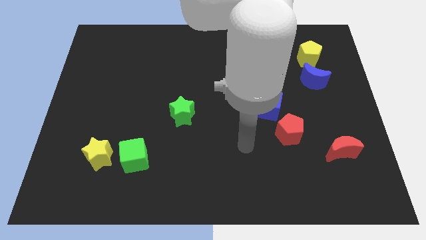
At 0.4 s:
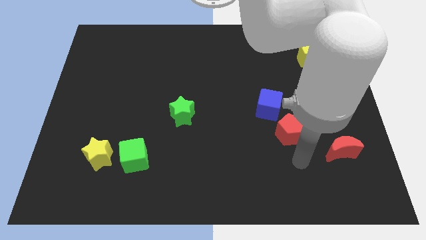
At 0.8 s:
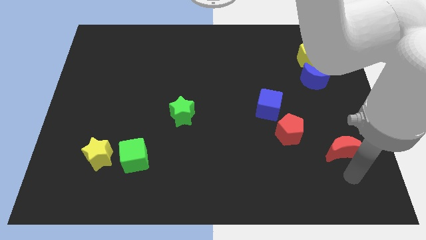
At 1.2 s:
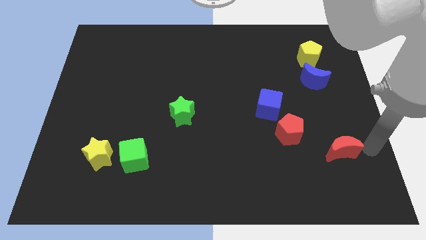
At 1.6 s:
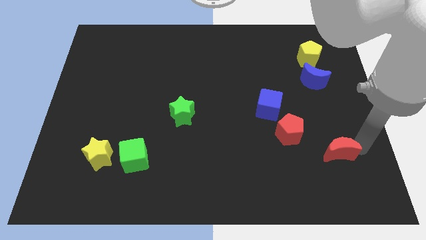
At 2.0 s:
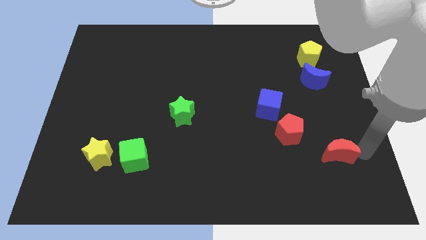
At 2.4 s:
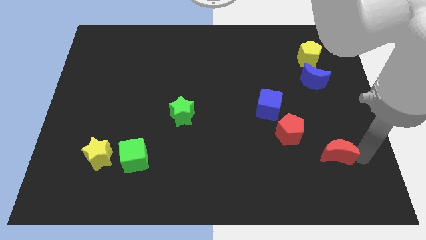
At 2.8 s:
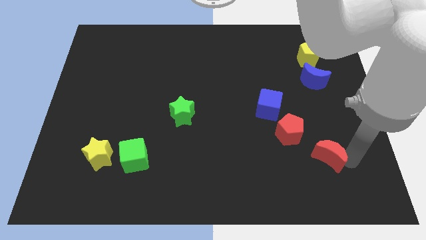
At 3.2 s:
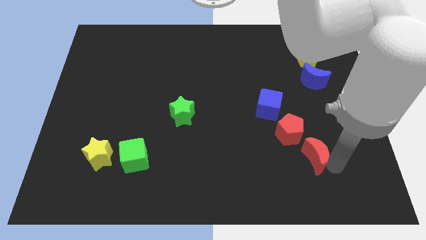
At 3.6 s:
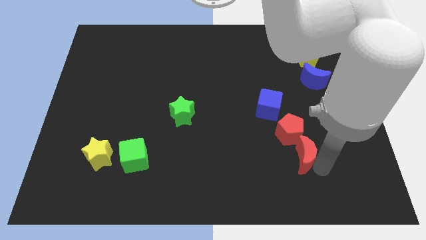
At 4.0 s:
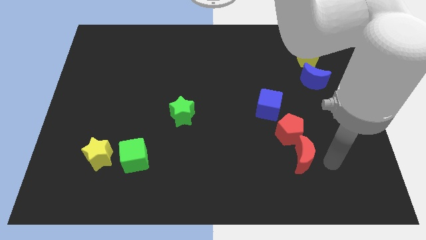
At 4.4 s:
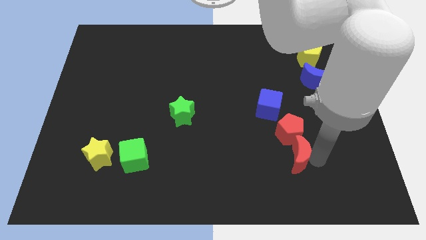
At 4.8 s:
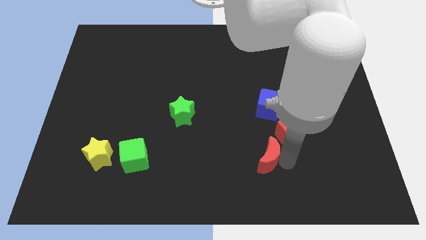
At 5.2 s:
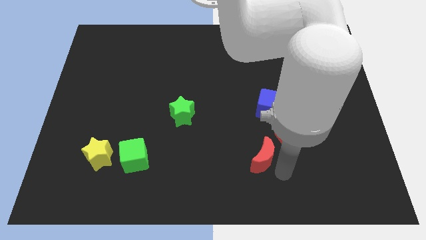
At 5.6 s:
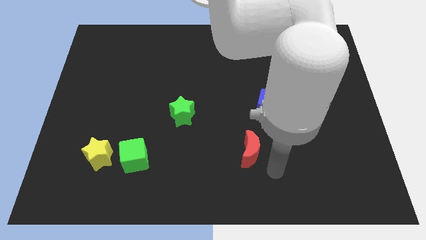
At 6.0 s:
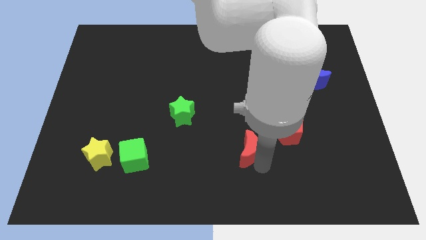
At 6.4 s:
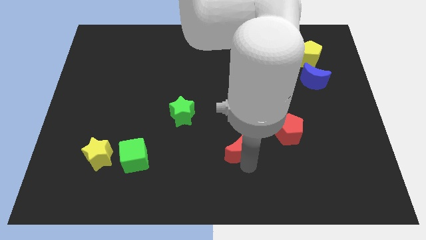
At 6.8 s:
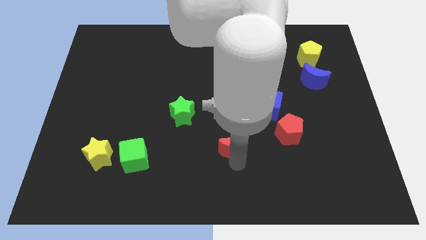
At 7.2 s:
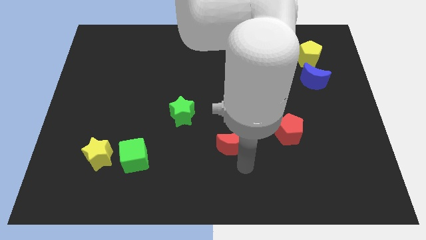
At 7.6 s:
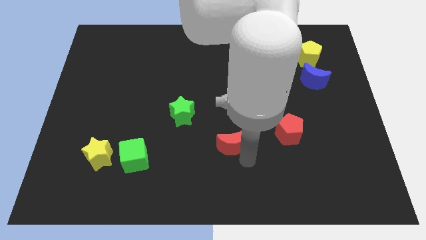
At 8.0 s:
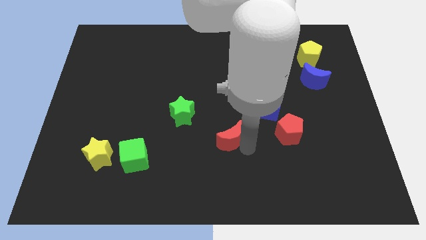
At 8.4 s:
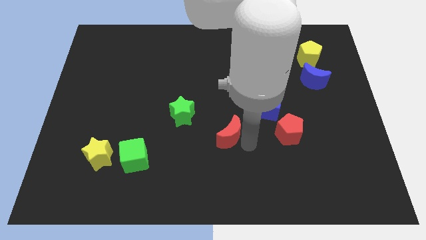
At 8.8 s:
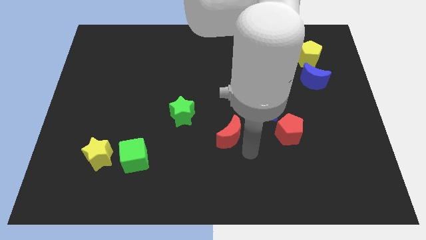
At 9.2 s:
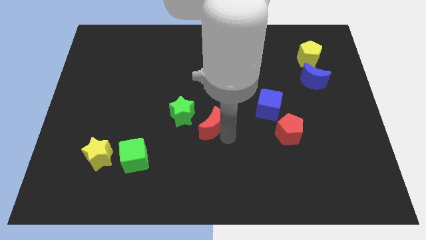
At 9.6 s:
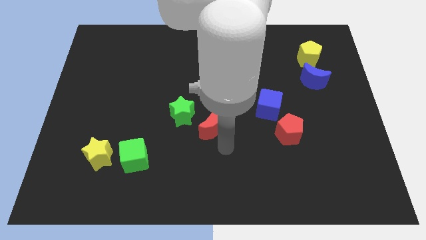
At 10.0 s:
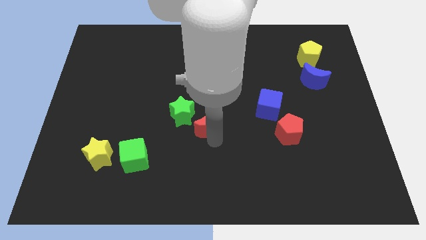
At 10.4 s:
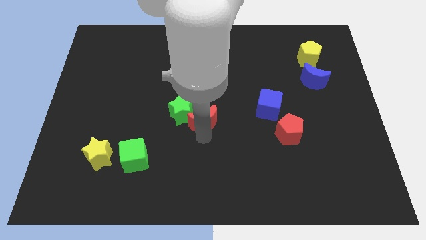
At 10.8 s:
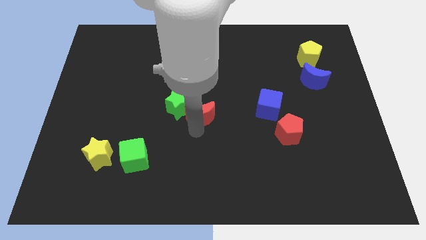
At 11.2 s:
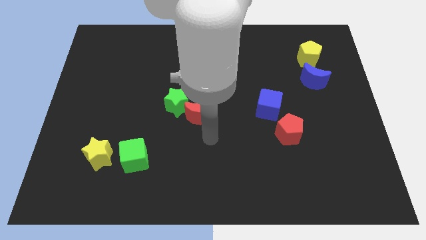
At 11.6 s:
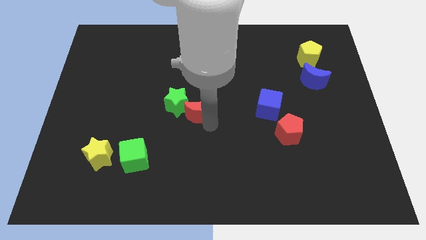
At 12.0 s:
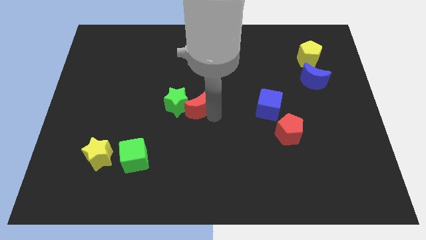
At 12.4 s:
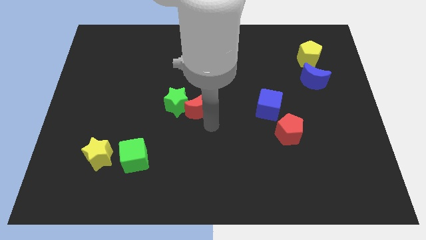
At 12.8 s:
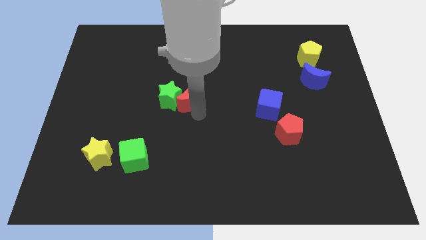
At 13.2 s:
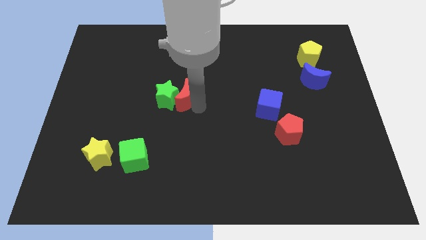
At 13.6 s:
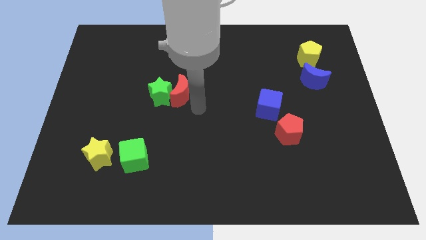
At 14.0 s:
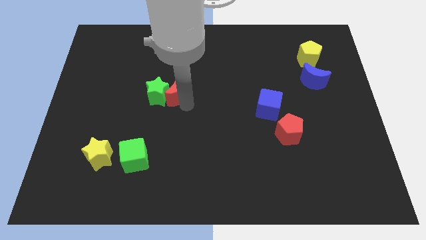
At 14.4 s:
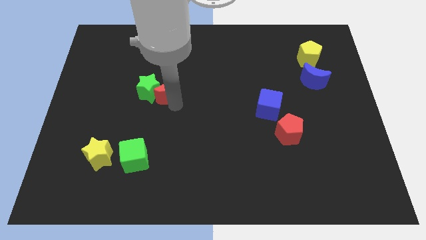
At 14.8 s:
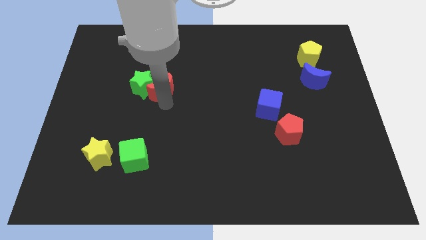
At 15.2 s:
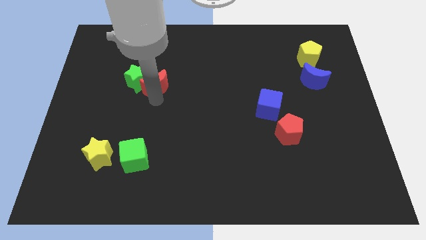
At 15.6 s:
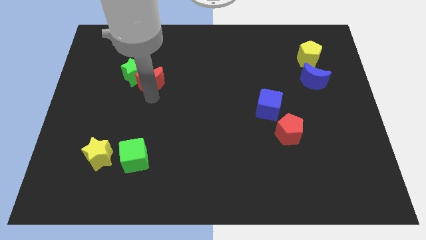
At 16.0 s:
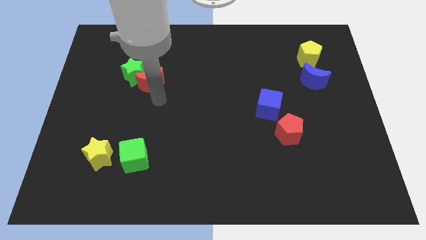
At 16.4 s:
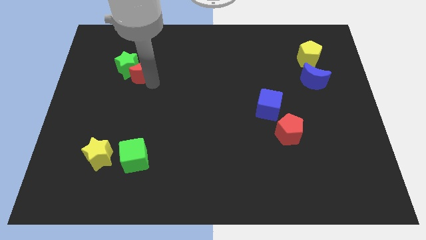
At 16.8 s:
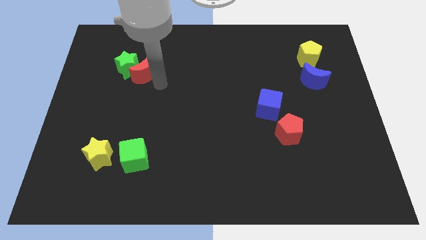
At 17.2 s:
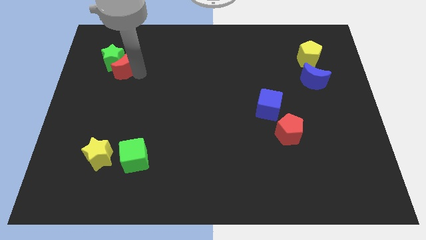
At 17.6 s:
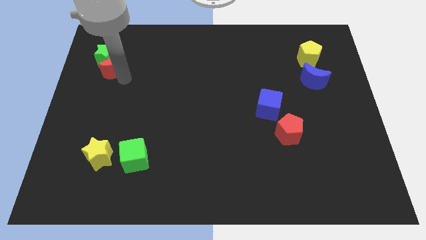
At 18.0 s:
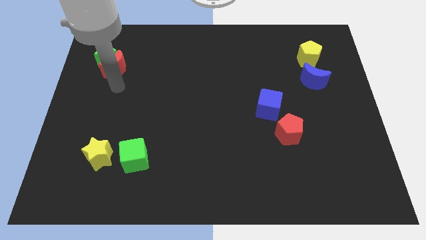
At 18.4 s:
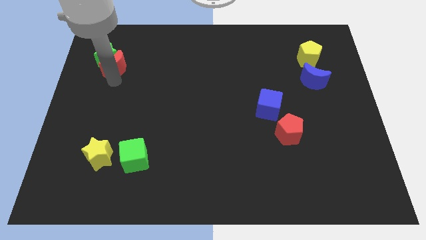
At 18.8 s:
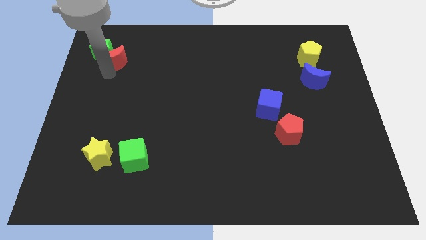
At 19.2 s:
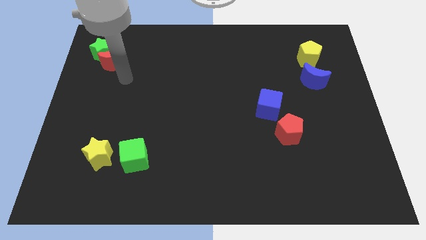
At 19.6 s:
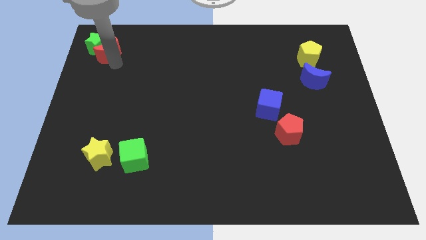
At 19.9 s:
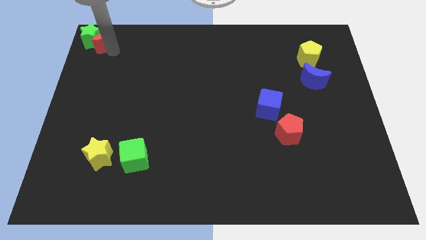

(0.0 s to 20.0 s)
put the red moon to the upper left corner

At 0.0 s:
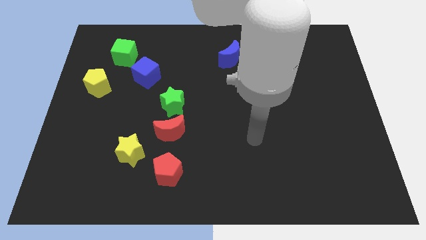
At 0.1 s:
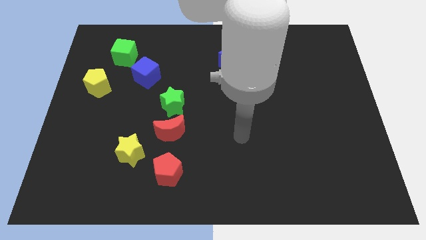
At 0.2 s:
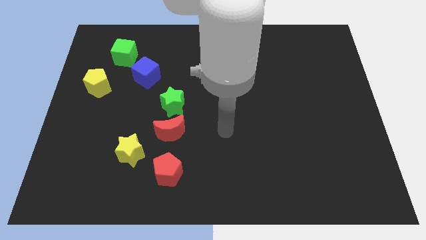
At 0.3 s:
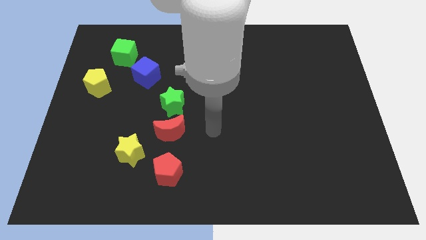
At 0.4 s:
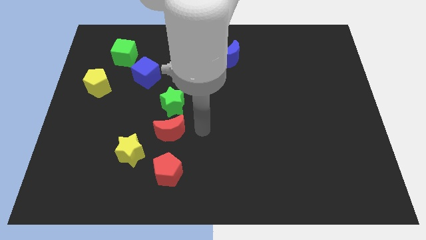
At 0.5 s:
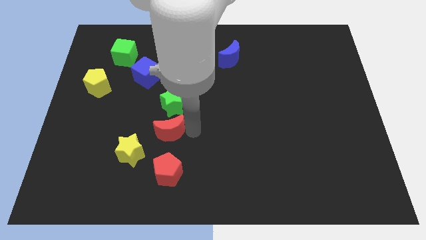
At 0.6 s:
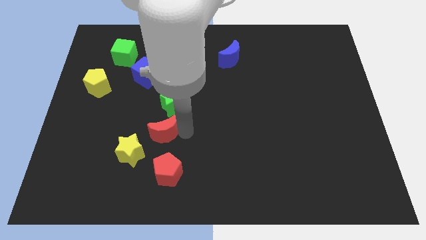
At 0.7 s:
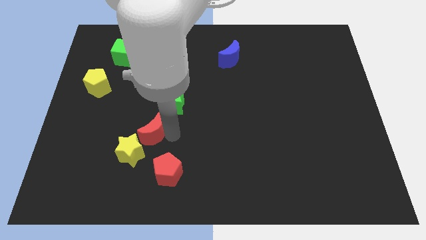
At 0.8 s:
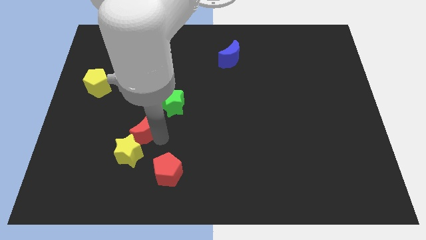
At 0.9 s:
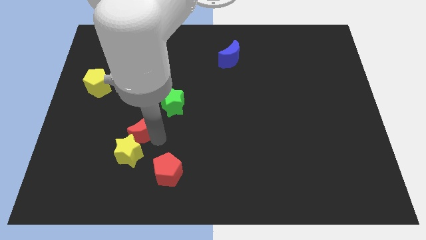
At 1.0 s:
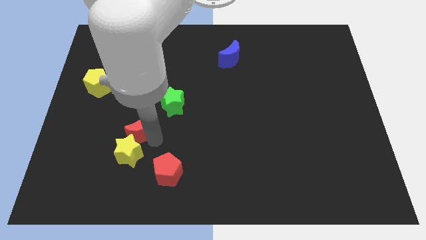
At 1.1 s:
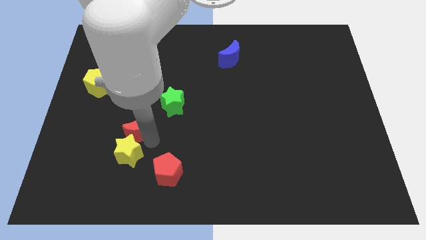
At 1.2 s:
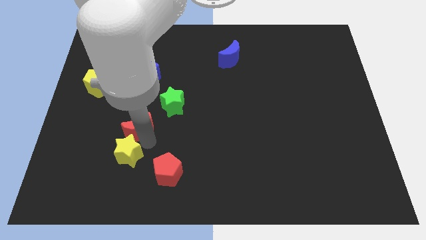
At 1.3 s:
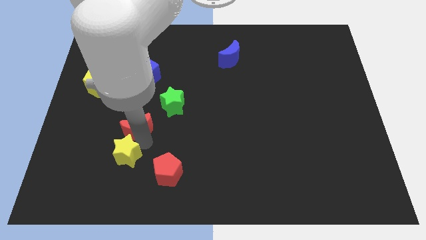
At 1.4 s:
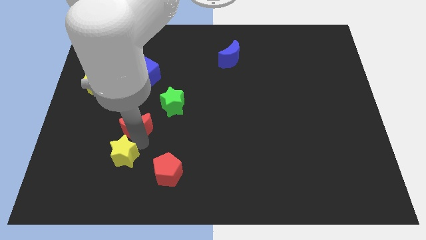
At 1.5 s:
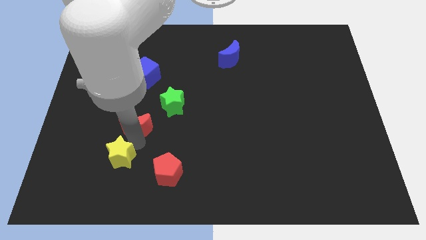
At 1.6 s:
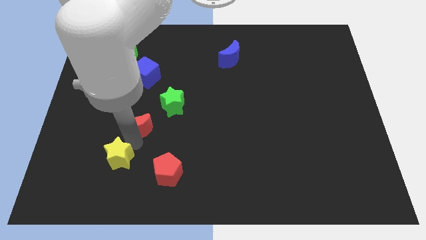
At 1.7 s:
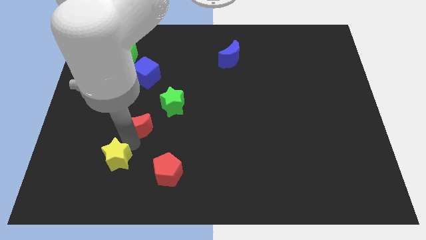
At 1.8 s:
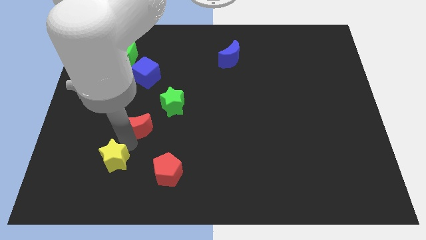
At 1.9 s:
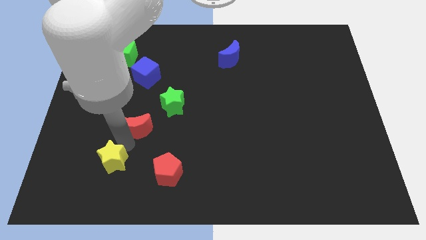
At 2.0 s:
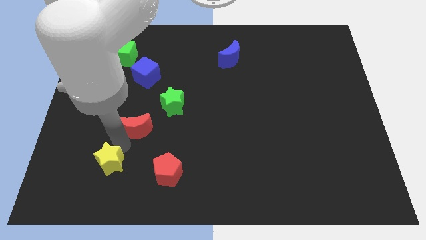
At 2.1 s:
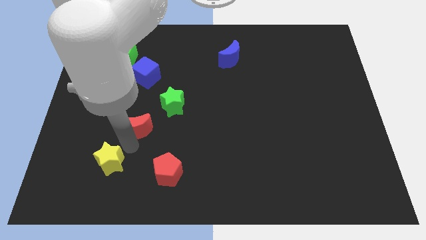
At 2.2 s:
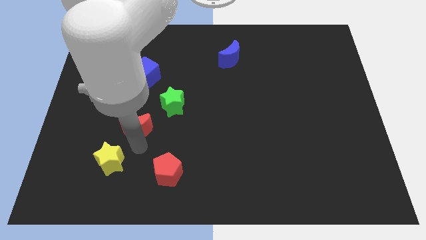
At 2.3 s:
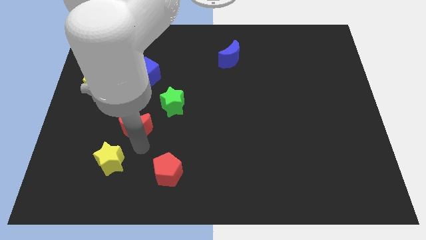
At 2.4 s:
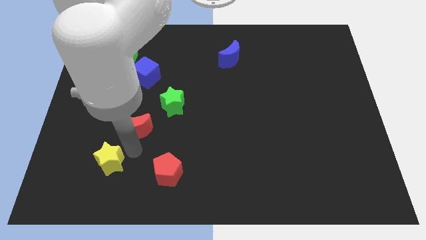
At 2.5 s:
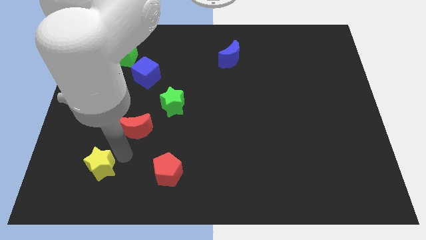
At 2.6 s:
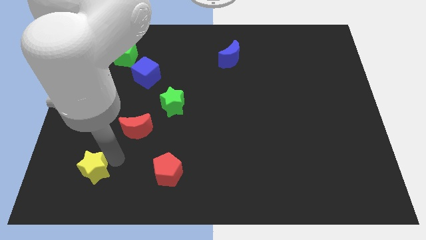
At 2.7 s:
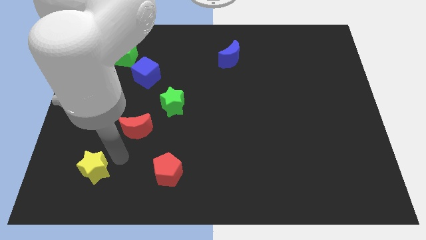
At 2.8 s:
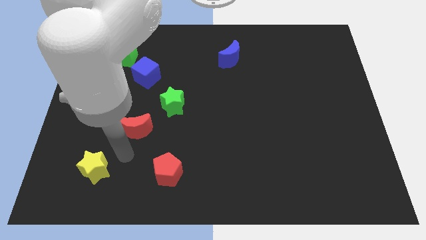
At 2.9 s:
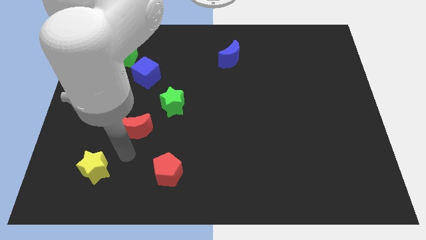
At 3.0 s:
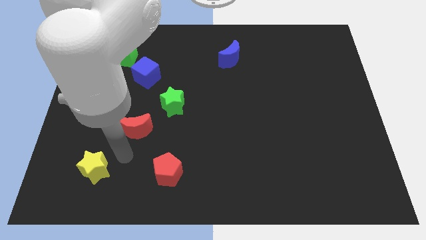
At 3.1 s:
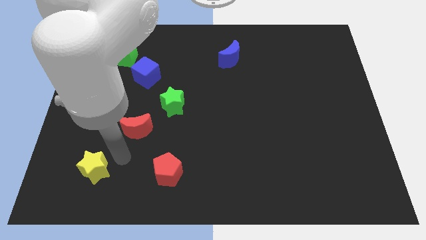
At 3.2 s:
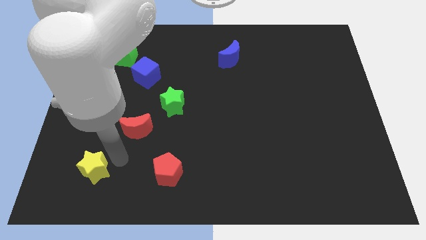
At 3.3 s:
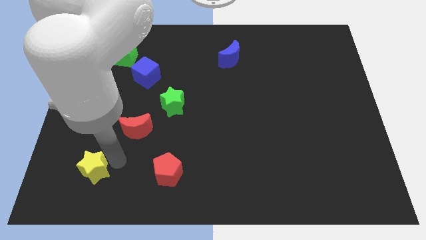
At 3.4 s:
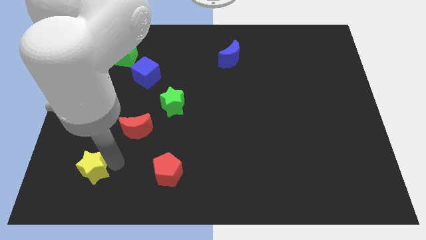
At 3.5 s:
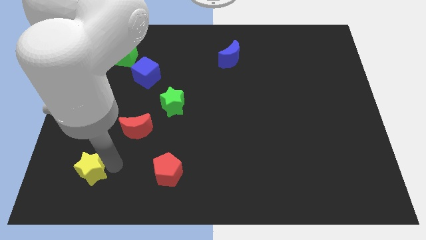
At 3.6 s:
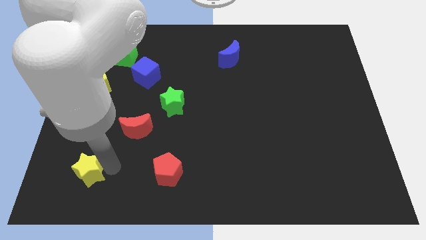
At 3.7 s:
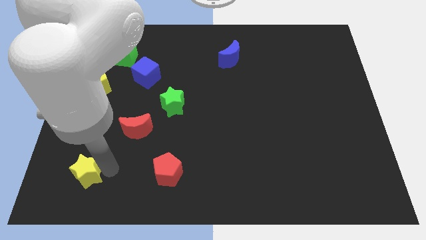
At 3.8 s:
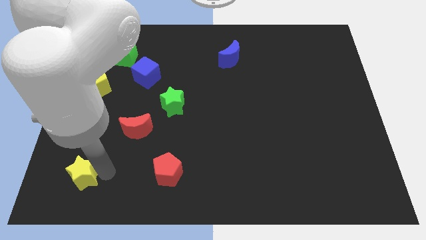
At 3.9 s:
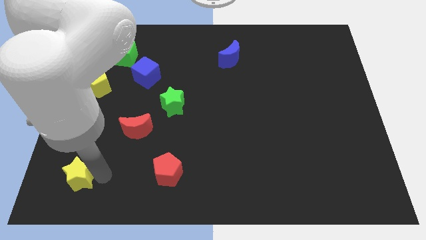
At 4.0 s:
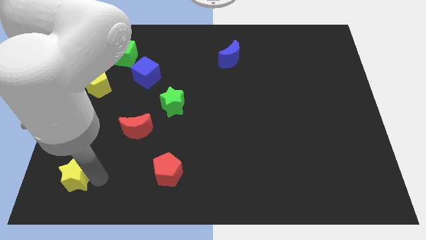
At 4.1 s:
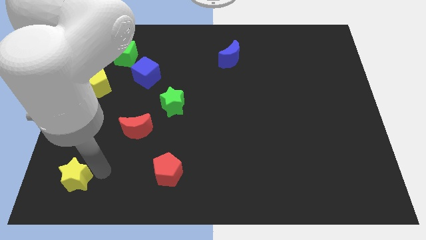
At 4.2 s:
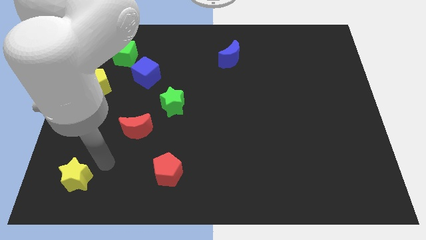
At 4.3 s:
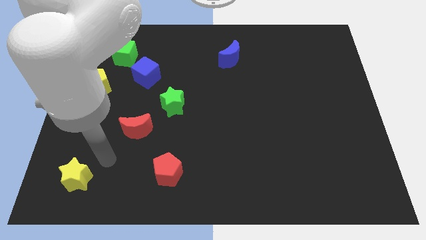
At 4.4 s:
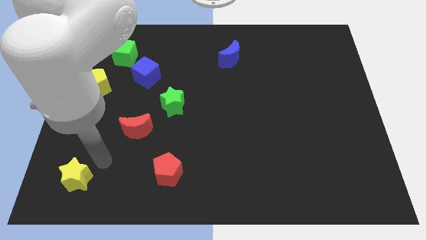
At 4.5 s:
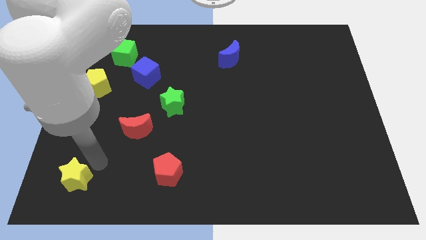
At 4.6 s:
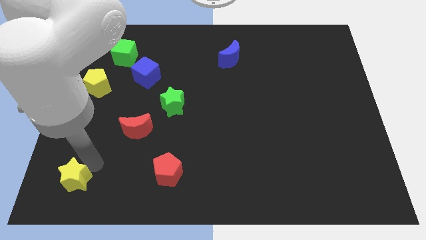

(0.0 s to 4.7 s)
push the yellow star to the bottom left corner
